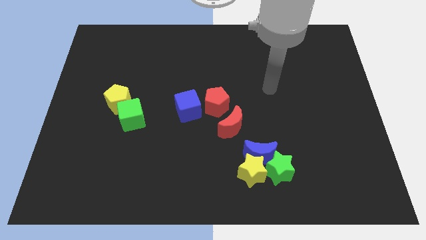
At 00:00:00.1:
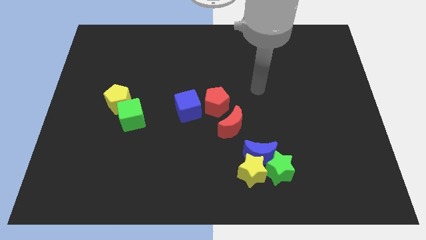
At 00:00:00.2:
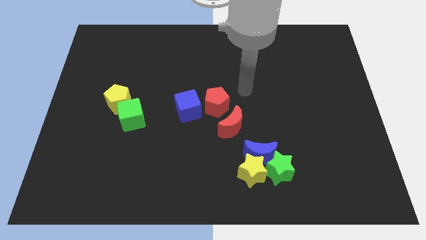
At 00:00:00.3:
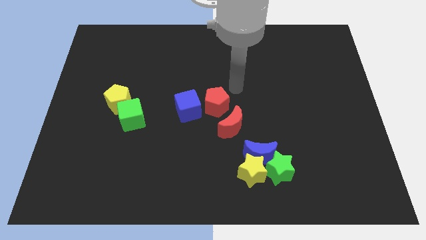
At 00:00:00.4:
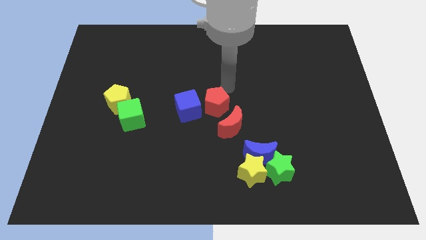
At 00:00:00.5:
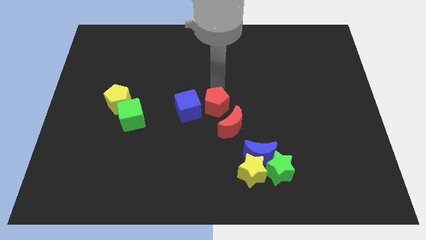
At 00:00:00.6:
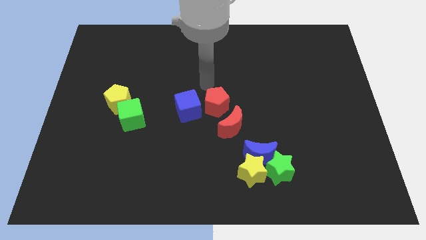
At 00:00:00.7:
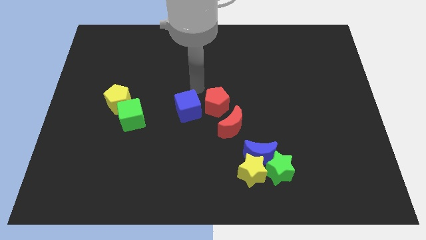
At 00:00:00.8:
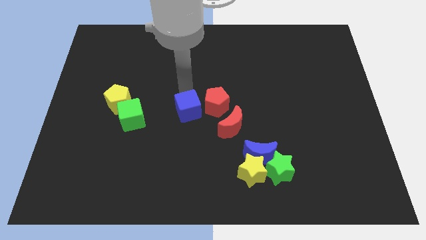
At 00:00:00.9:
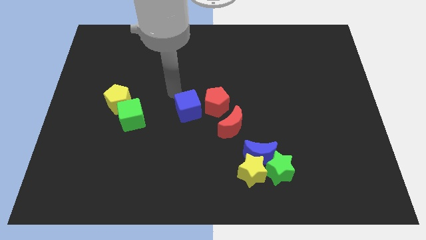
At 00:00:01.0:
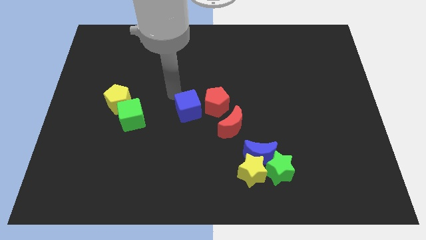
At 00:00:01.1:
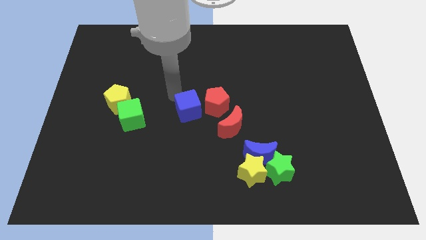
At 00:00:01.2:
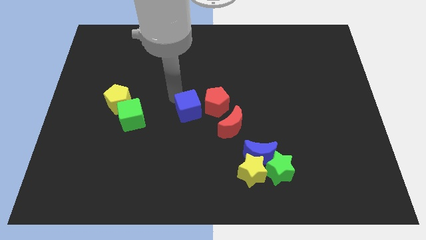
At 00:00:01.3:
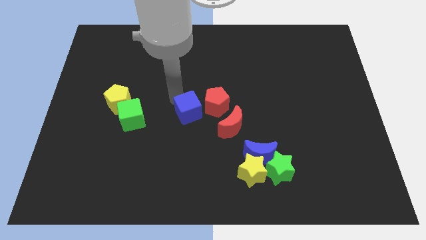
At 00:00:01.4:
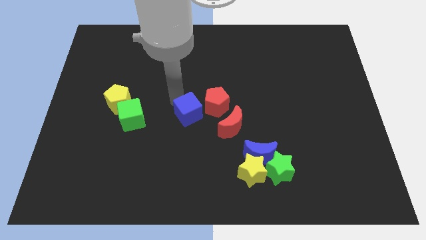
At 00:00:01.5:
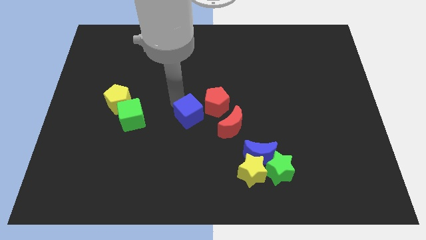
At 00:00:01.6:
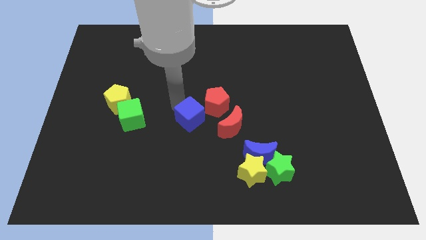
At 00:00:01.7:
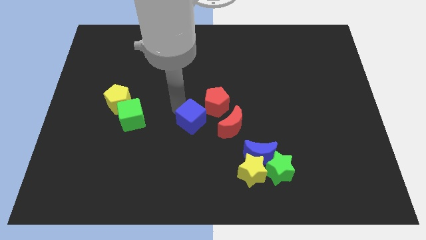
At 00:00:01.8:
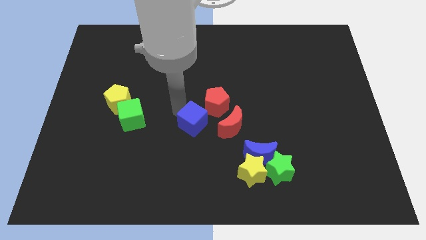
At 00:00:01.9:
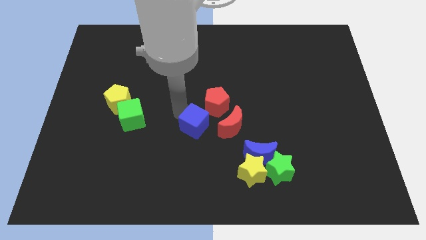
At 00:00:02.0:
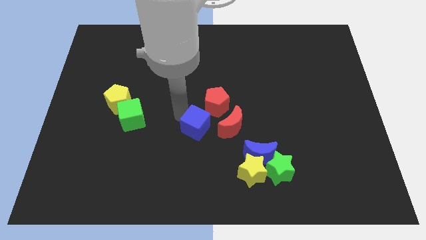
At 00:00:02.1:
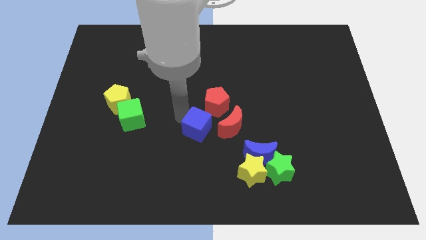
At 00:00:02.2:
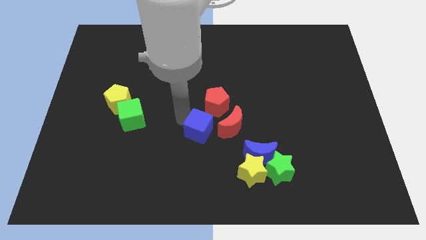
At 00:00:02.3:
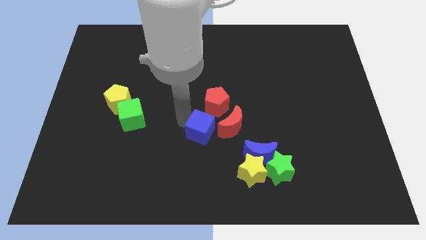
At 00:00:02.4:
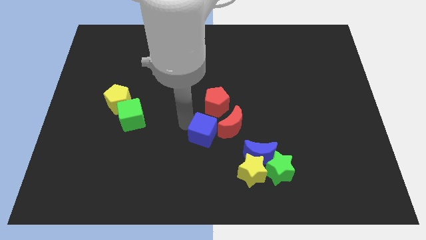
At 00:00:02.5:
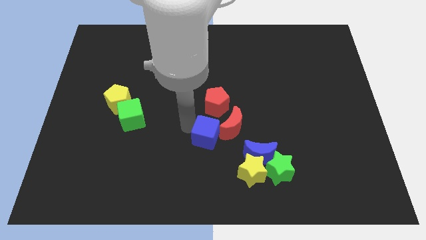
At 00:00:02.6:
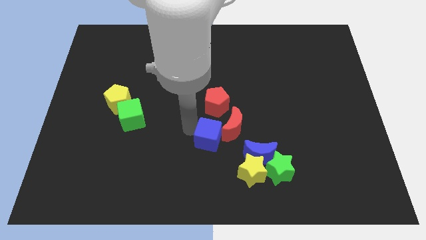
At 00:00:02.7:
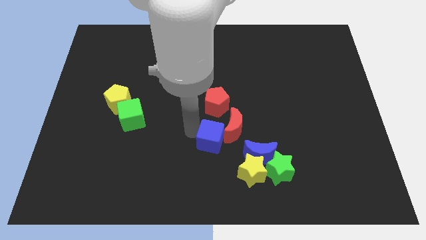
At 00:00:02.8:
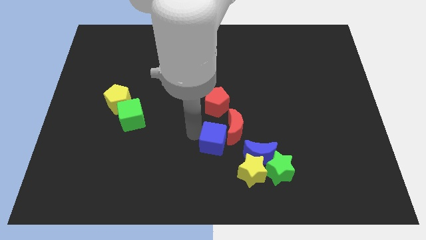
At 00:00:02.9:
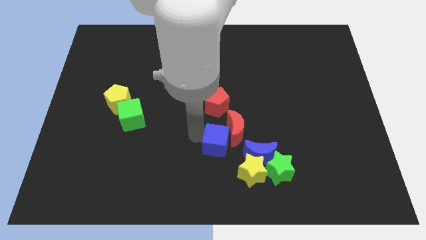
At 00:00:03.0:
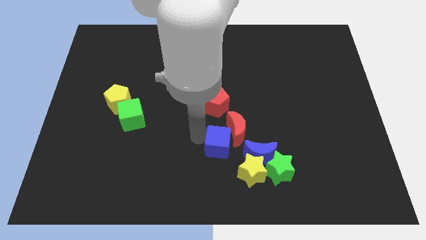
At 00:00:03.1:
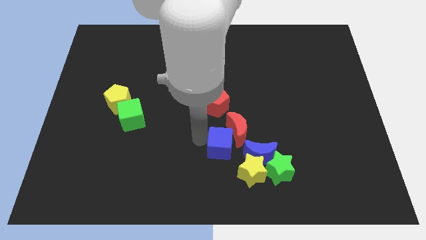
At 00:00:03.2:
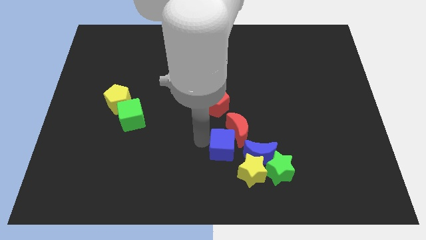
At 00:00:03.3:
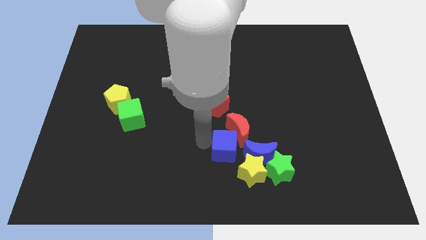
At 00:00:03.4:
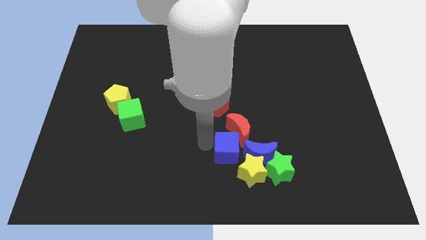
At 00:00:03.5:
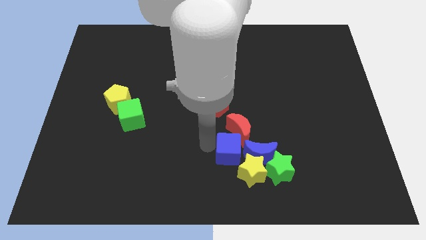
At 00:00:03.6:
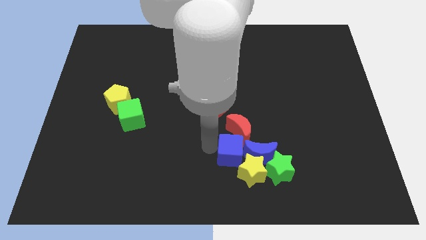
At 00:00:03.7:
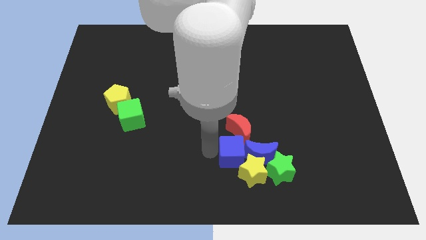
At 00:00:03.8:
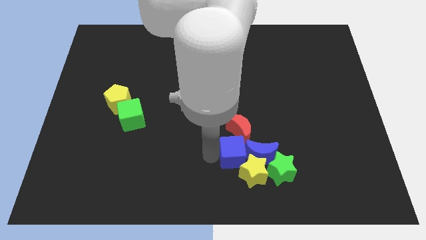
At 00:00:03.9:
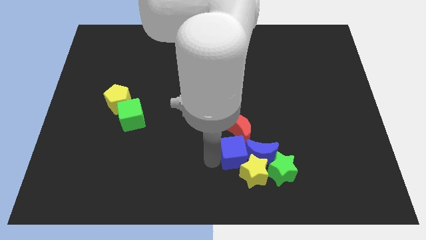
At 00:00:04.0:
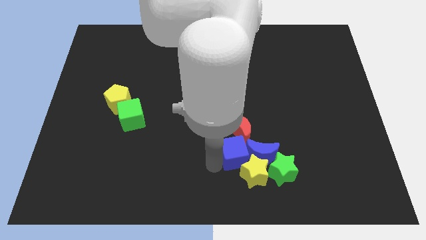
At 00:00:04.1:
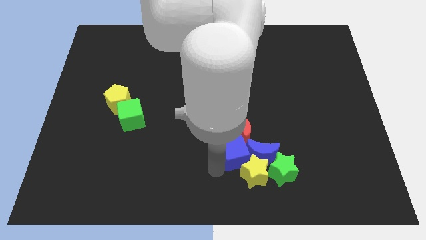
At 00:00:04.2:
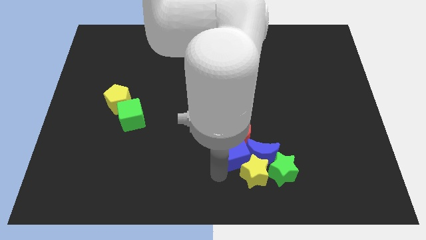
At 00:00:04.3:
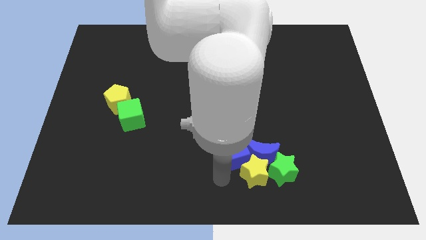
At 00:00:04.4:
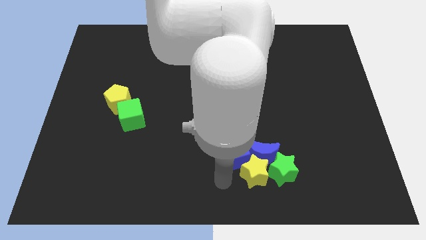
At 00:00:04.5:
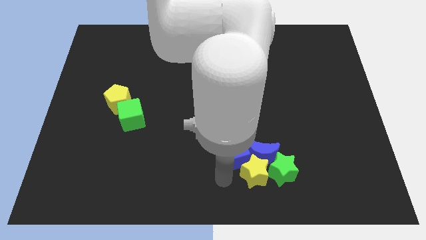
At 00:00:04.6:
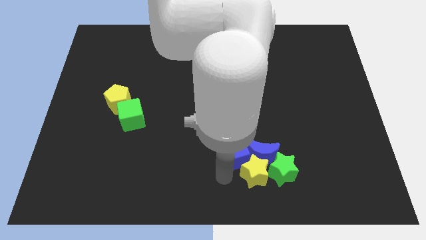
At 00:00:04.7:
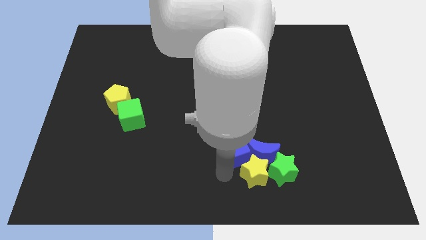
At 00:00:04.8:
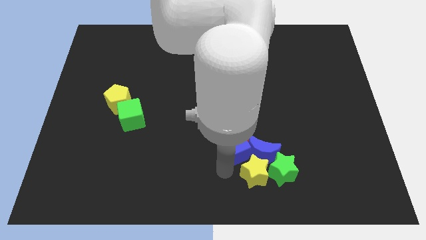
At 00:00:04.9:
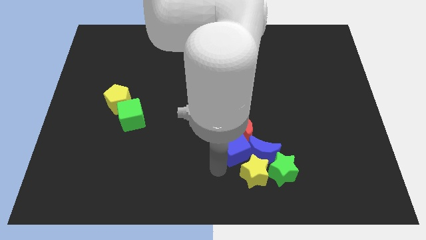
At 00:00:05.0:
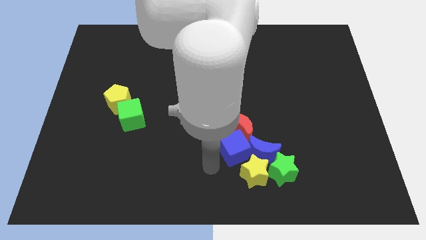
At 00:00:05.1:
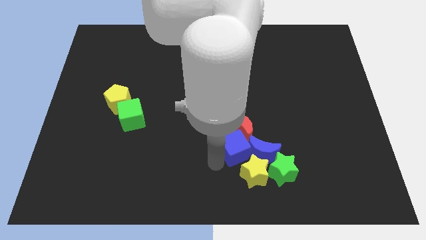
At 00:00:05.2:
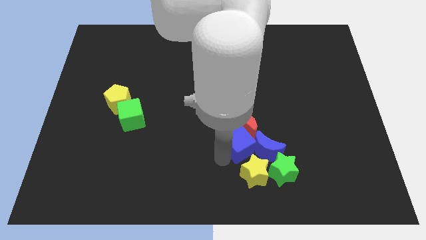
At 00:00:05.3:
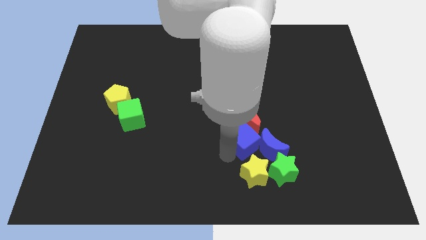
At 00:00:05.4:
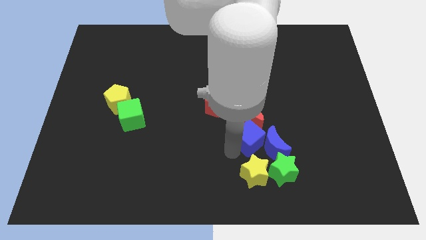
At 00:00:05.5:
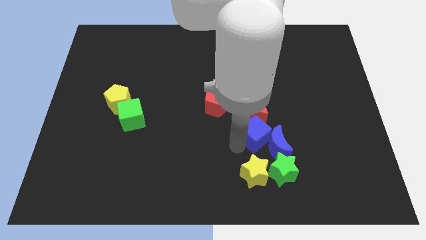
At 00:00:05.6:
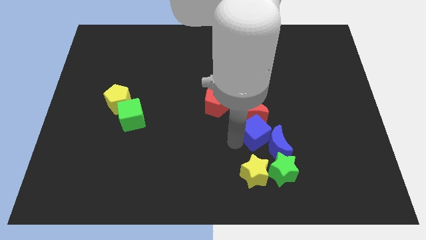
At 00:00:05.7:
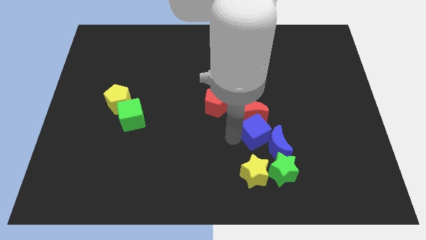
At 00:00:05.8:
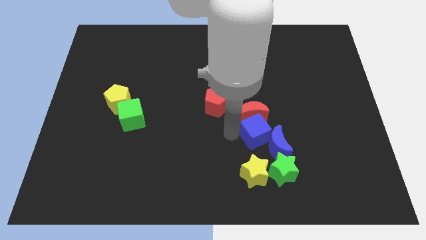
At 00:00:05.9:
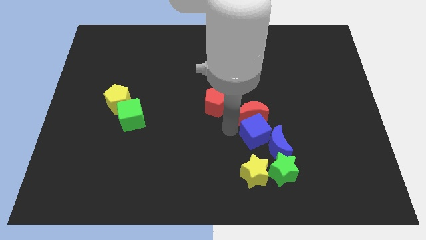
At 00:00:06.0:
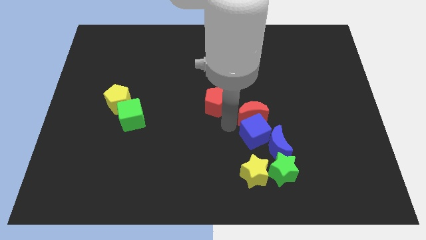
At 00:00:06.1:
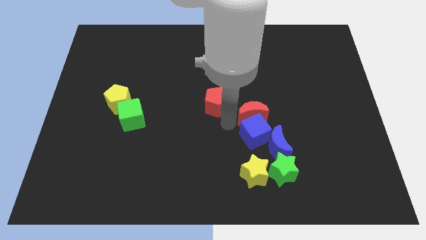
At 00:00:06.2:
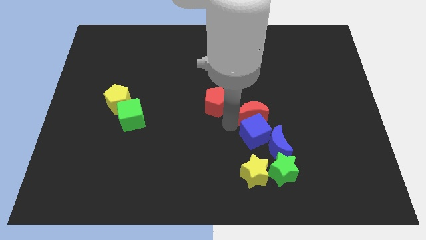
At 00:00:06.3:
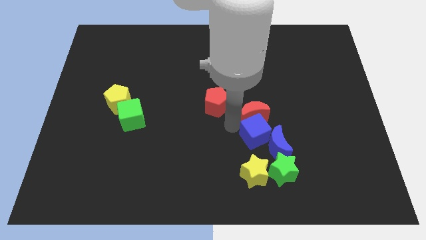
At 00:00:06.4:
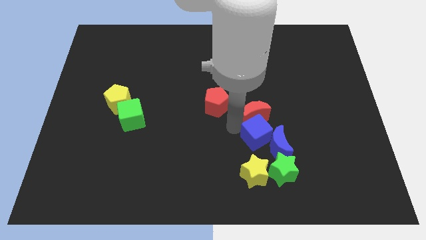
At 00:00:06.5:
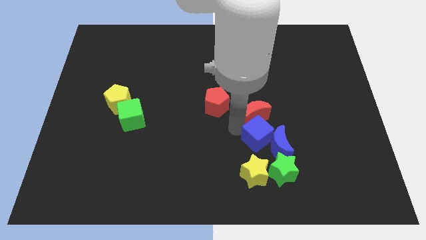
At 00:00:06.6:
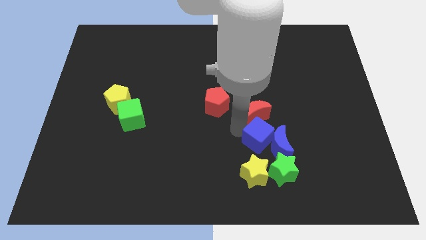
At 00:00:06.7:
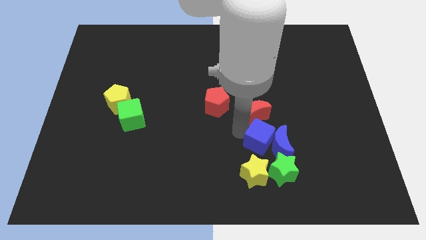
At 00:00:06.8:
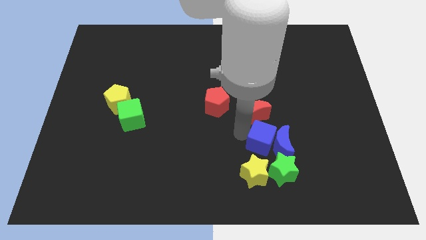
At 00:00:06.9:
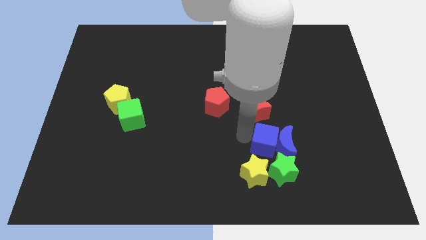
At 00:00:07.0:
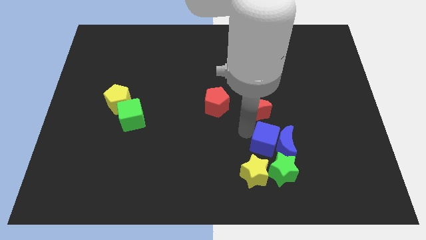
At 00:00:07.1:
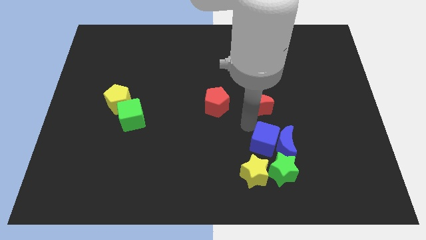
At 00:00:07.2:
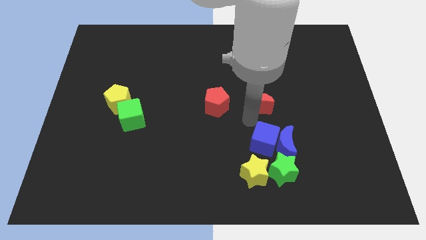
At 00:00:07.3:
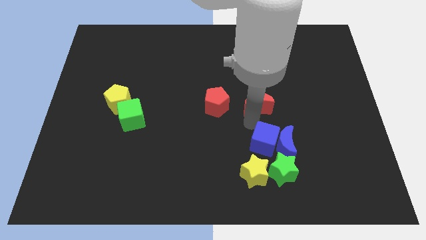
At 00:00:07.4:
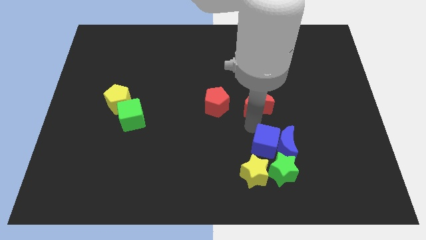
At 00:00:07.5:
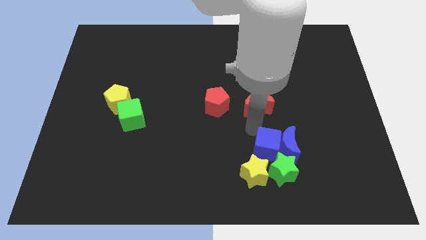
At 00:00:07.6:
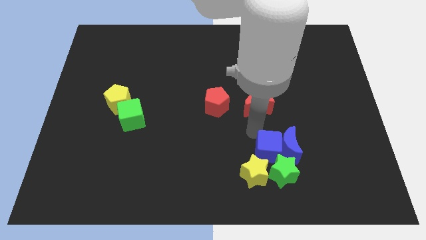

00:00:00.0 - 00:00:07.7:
move the blue cube next to the green star
